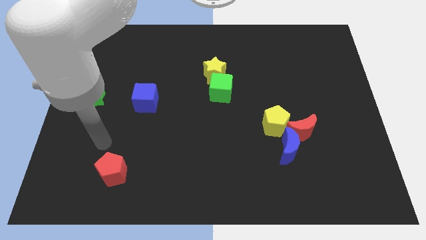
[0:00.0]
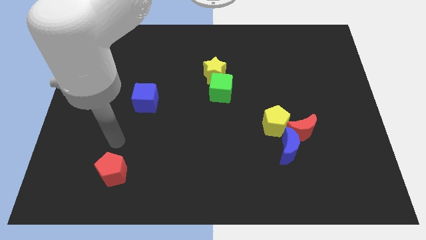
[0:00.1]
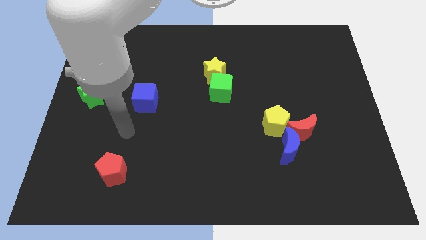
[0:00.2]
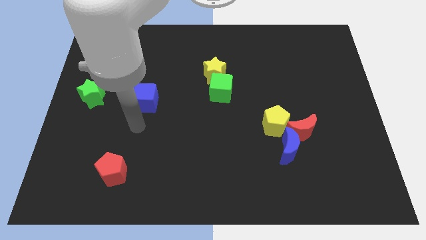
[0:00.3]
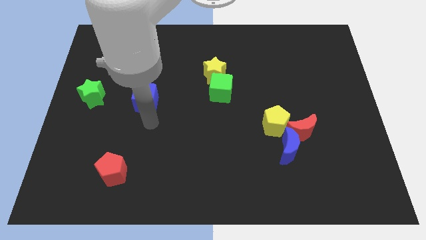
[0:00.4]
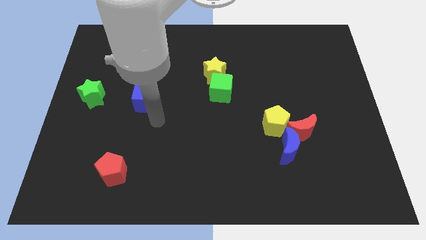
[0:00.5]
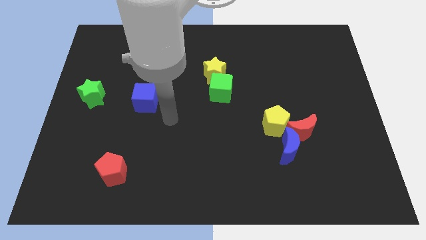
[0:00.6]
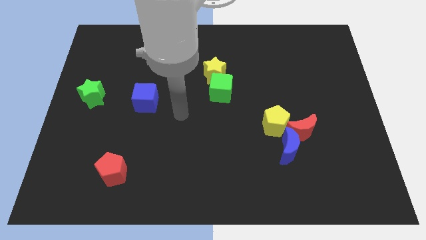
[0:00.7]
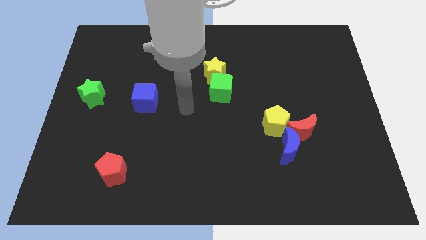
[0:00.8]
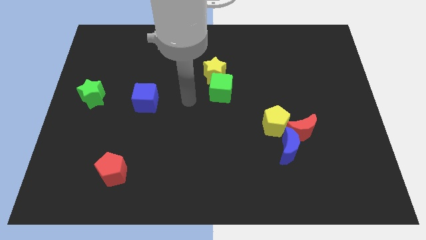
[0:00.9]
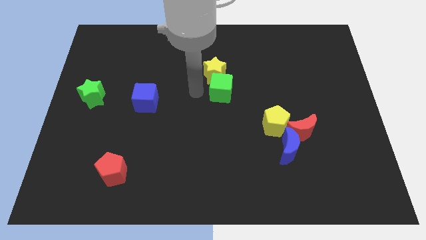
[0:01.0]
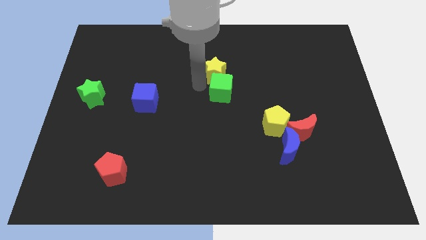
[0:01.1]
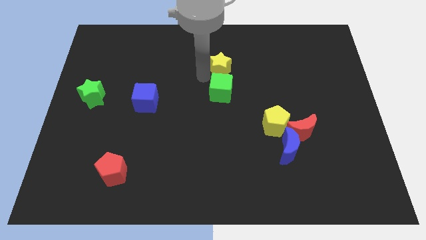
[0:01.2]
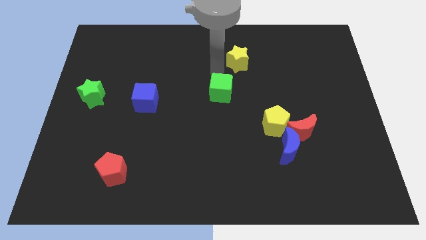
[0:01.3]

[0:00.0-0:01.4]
separate the green cube from the yellow star

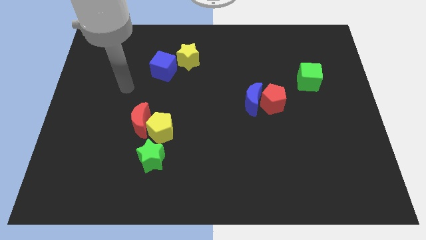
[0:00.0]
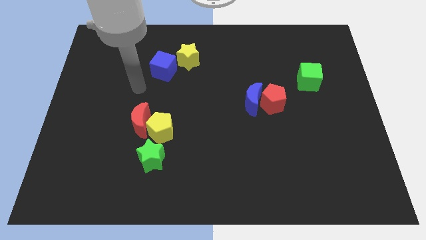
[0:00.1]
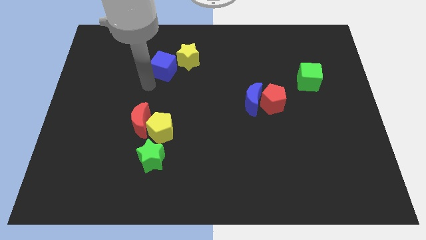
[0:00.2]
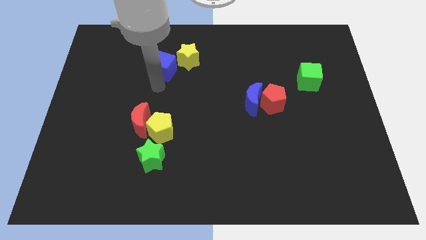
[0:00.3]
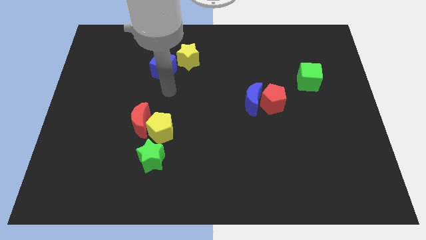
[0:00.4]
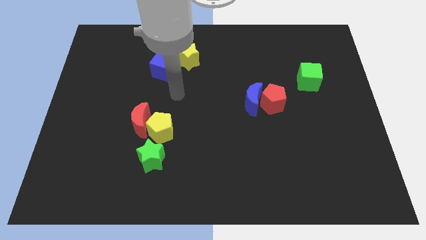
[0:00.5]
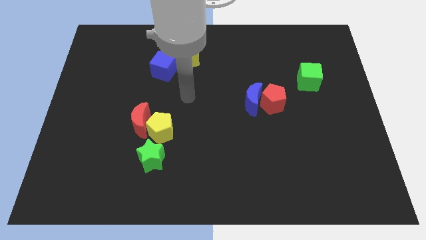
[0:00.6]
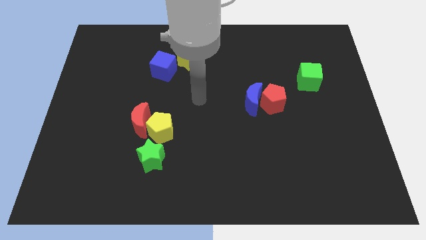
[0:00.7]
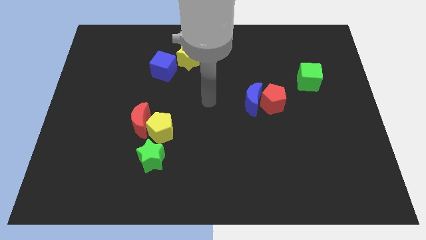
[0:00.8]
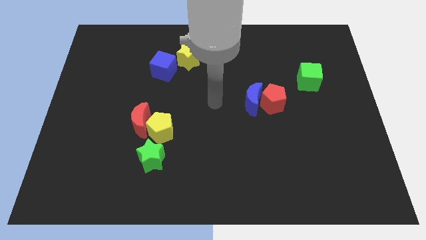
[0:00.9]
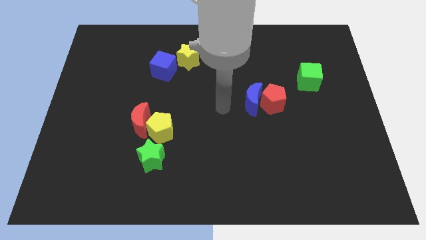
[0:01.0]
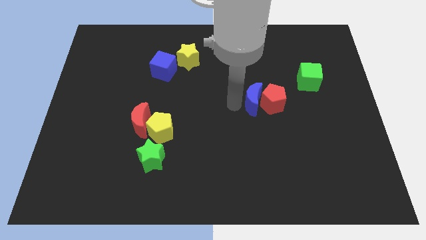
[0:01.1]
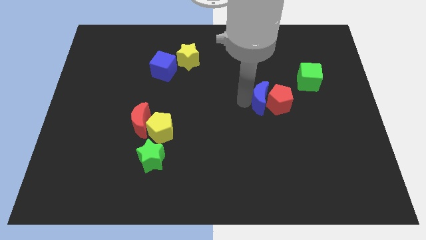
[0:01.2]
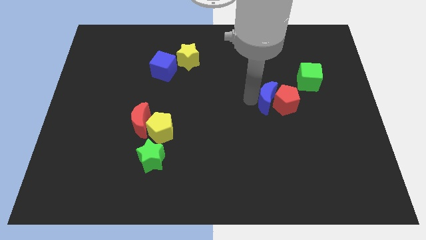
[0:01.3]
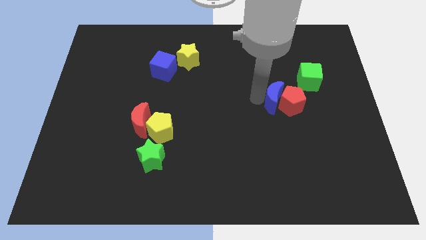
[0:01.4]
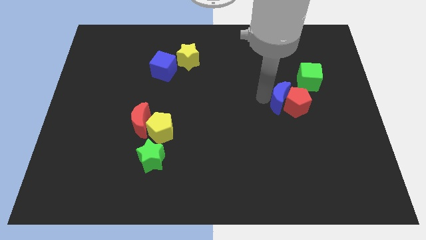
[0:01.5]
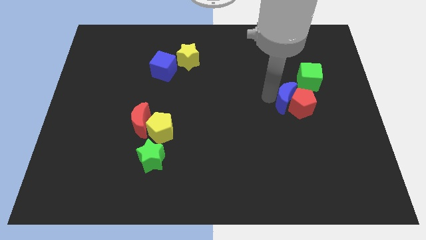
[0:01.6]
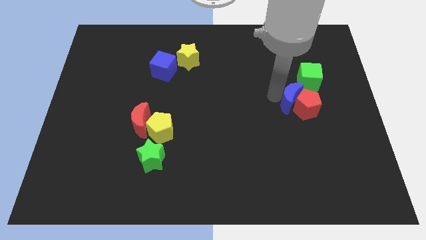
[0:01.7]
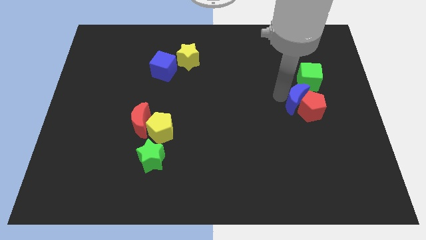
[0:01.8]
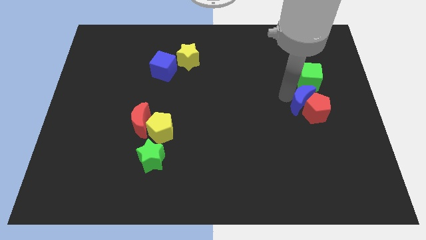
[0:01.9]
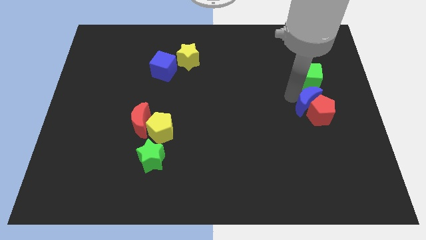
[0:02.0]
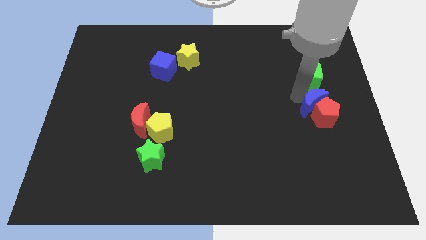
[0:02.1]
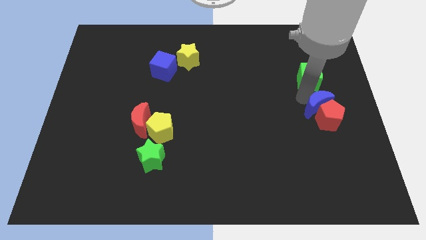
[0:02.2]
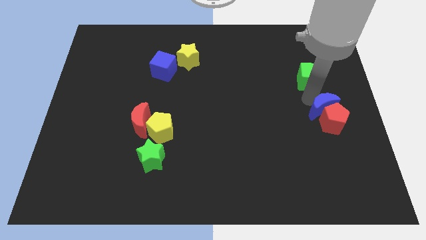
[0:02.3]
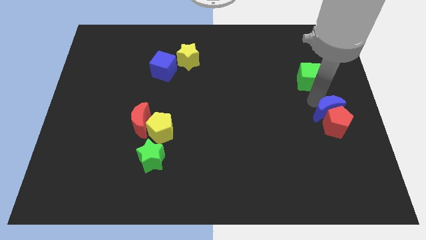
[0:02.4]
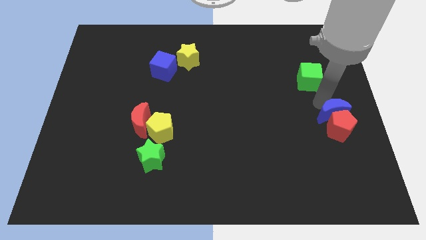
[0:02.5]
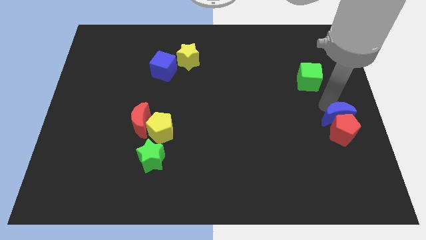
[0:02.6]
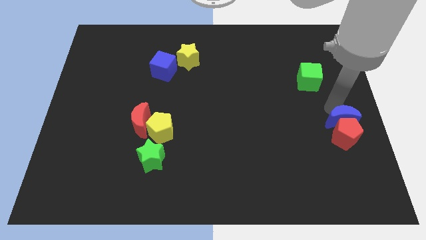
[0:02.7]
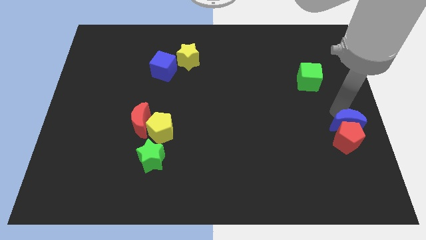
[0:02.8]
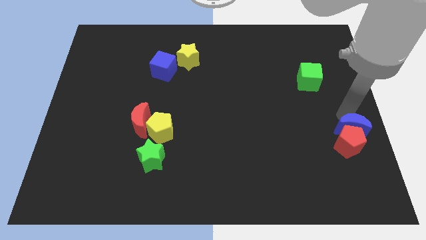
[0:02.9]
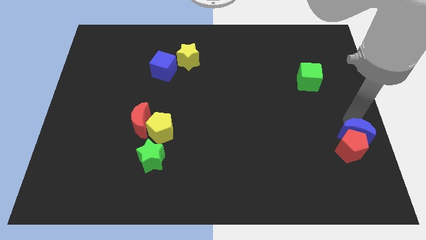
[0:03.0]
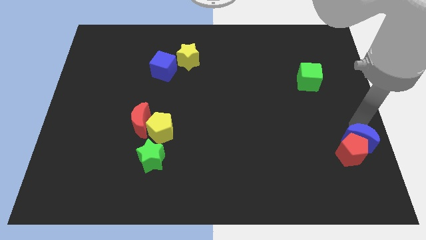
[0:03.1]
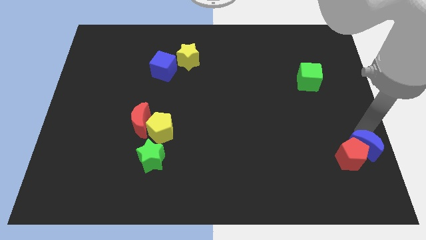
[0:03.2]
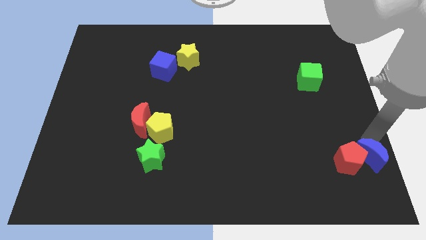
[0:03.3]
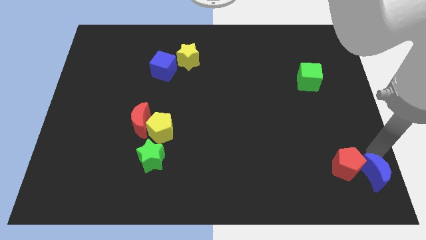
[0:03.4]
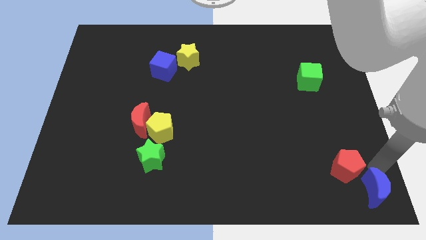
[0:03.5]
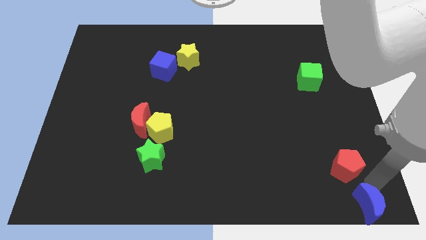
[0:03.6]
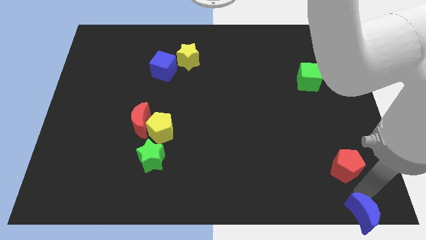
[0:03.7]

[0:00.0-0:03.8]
separate the red pentagon from the blue moon

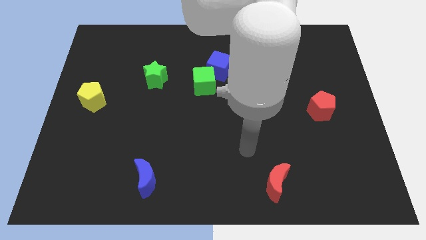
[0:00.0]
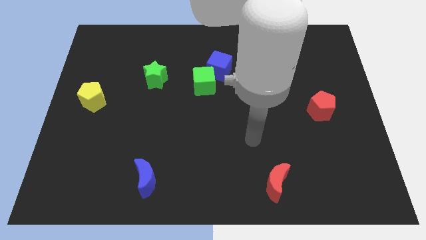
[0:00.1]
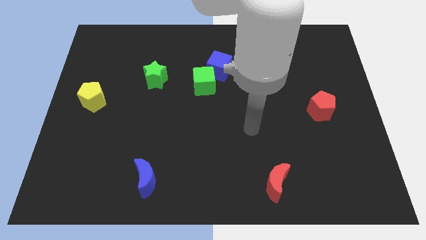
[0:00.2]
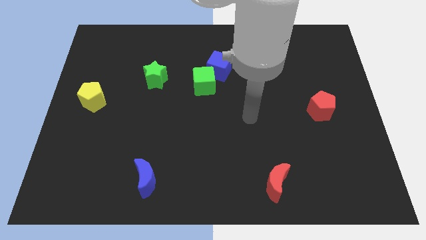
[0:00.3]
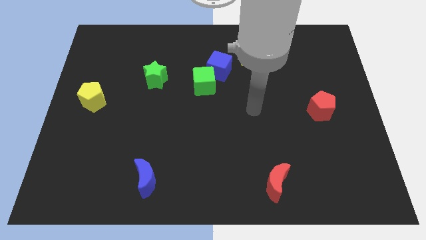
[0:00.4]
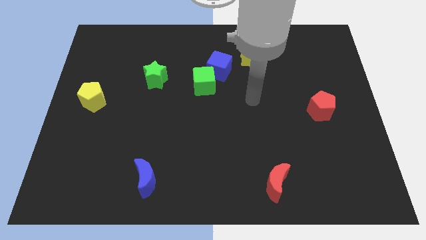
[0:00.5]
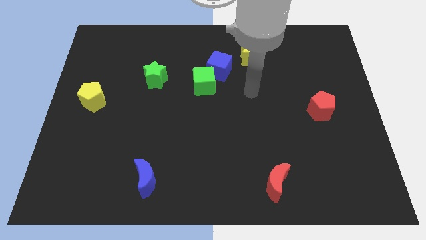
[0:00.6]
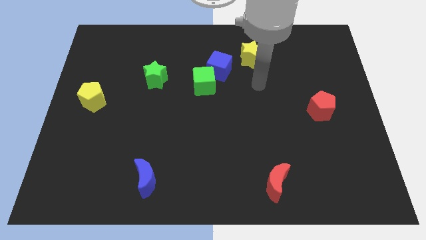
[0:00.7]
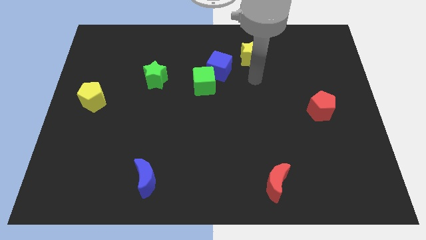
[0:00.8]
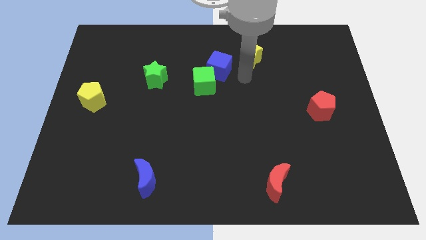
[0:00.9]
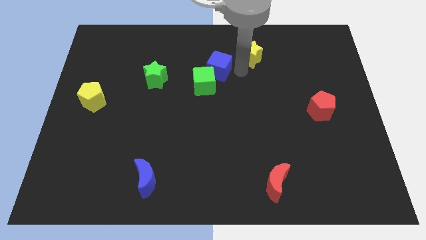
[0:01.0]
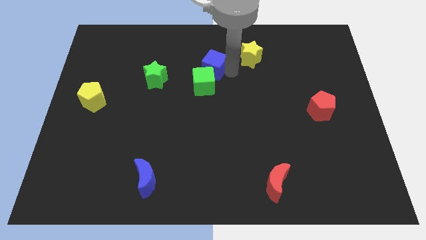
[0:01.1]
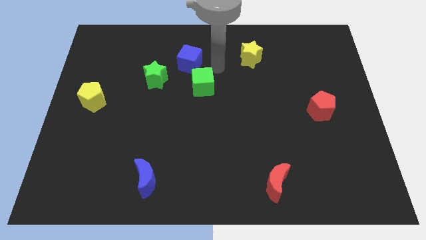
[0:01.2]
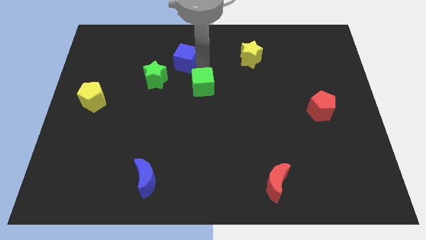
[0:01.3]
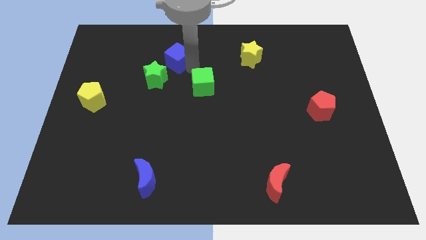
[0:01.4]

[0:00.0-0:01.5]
separate the green cube from the blue cube

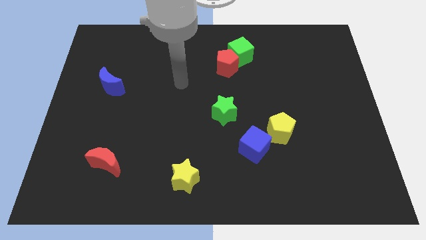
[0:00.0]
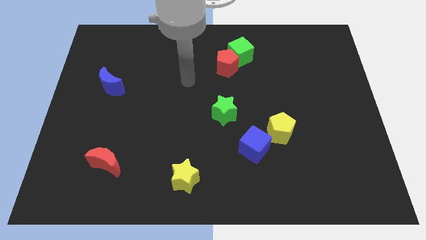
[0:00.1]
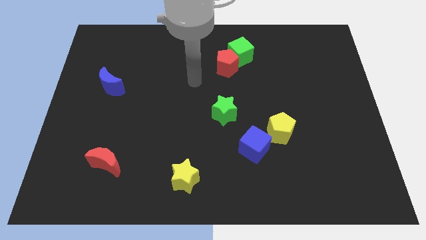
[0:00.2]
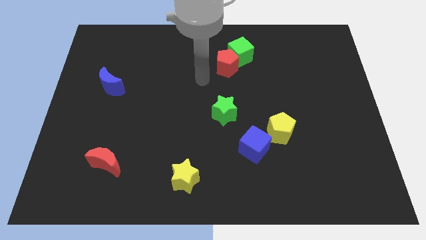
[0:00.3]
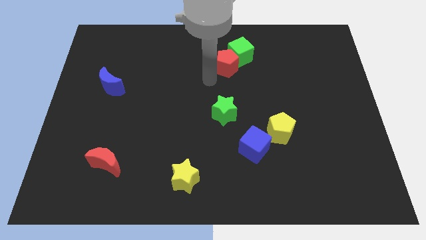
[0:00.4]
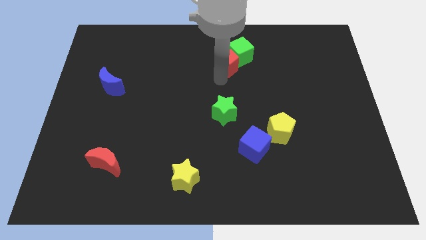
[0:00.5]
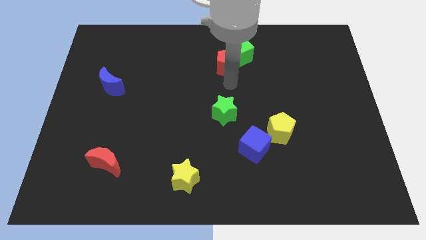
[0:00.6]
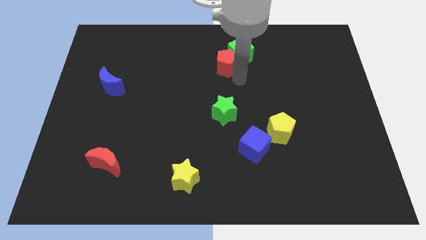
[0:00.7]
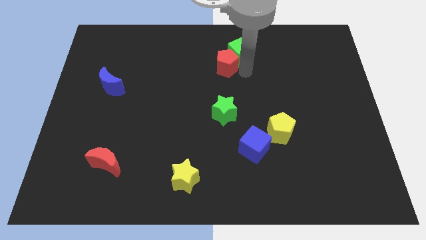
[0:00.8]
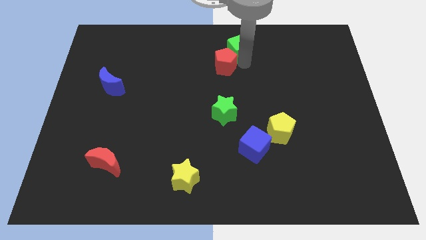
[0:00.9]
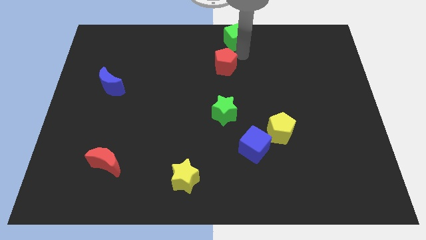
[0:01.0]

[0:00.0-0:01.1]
separate the red pentagon from the green cube

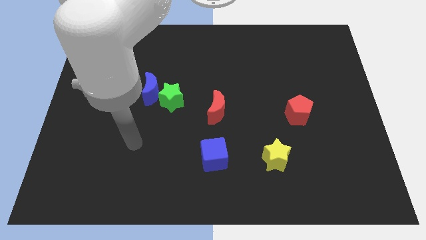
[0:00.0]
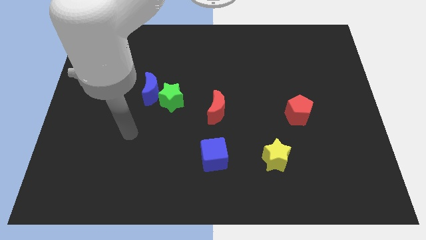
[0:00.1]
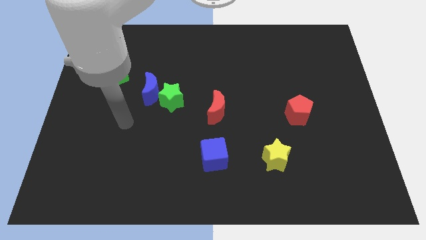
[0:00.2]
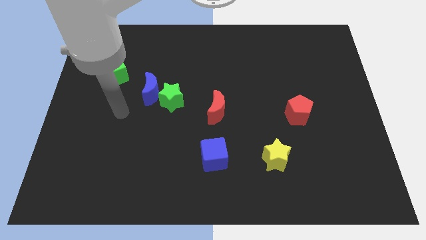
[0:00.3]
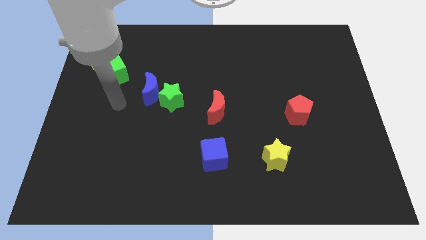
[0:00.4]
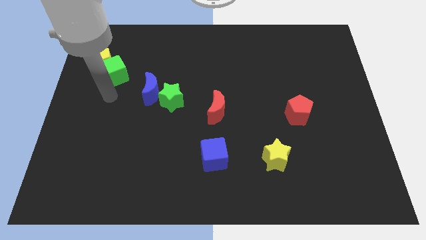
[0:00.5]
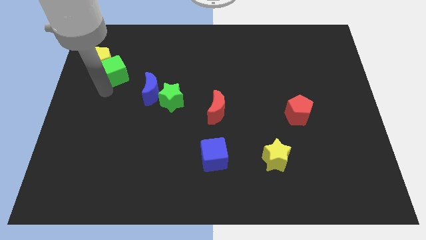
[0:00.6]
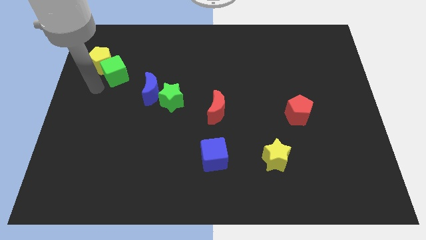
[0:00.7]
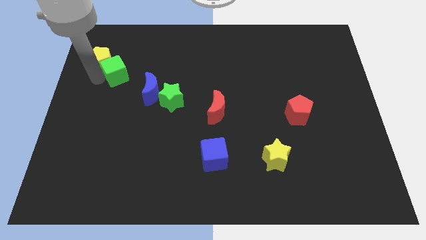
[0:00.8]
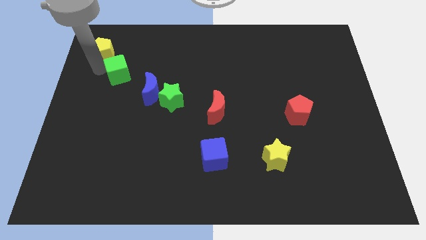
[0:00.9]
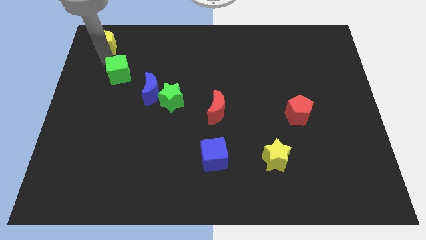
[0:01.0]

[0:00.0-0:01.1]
pull the green cube apart from the yellow pentagon

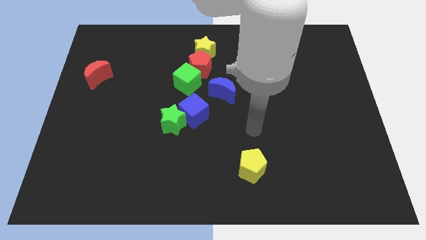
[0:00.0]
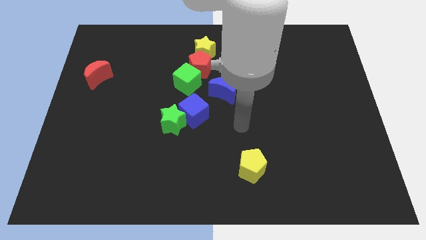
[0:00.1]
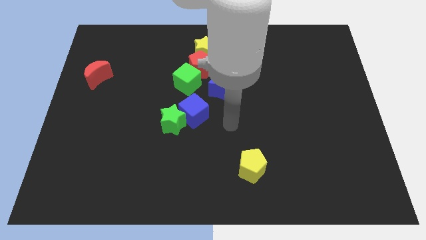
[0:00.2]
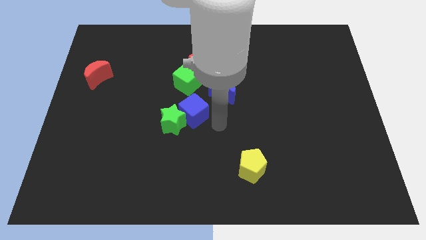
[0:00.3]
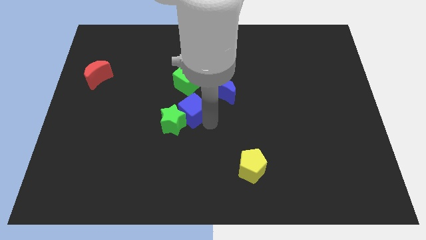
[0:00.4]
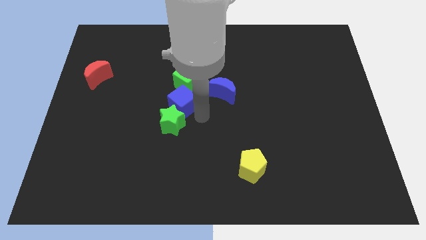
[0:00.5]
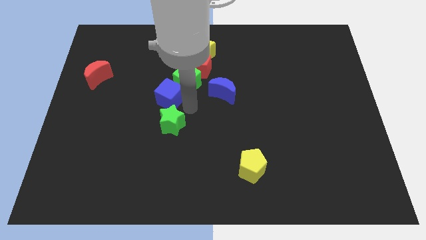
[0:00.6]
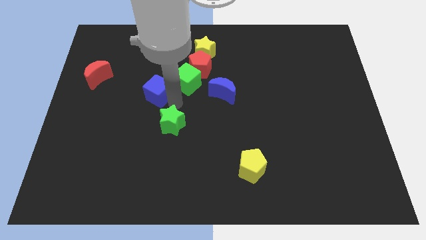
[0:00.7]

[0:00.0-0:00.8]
separate the green star from the blue cube
